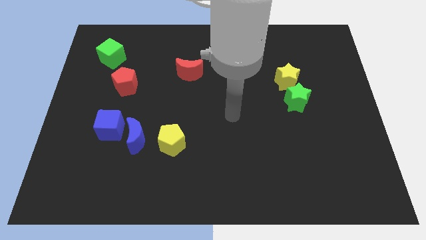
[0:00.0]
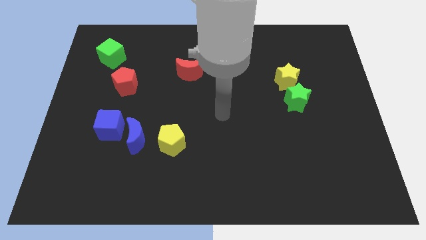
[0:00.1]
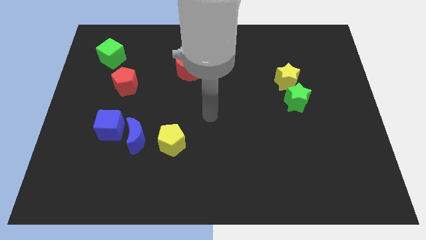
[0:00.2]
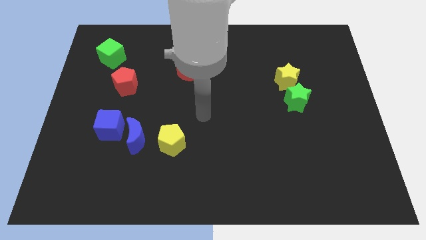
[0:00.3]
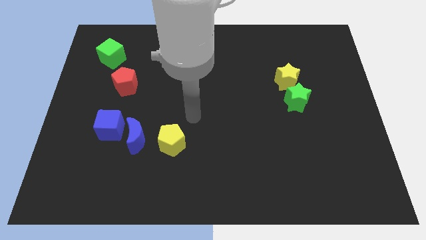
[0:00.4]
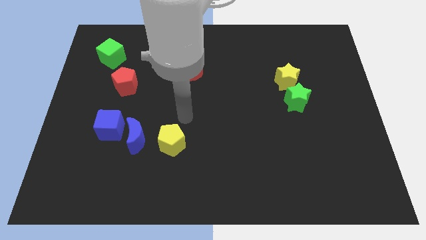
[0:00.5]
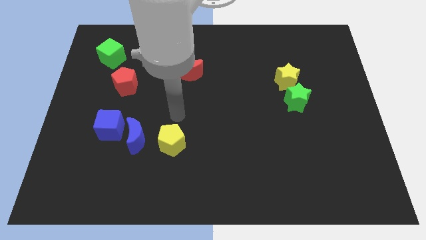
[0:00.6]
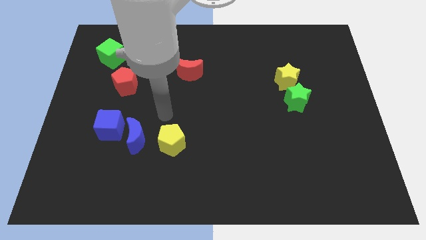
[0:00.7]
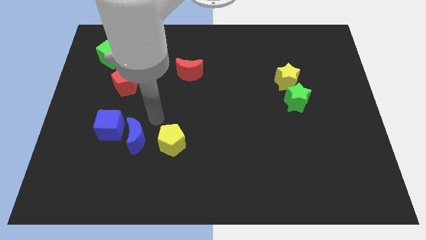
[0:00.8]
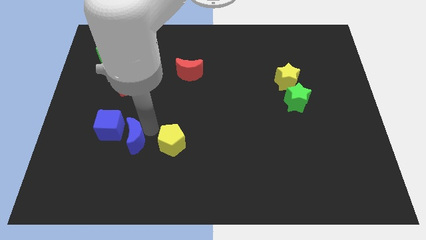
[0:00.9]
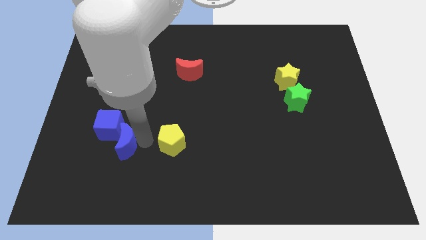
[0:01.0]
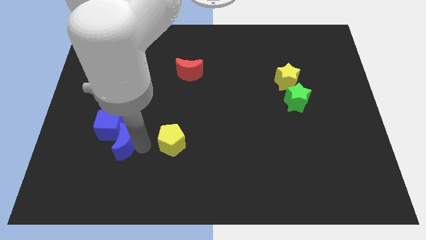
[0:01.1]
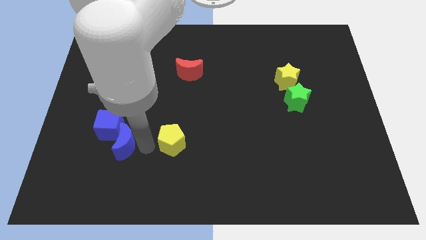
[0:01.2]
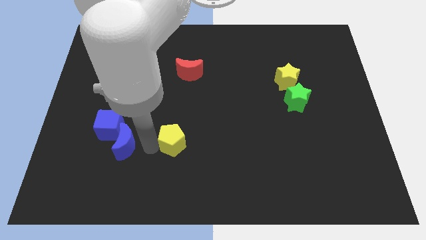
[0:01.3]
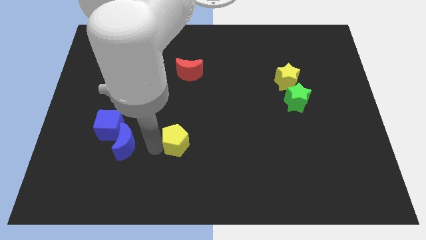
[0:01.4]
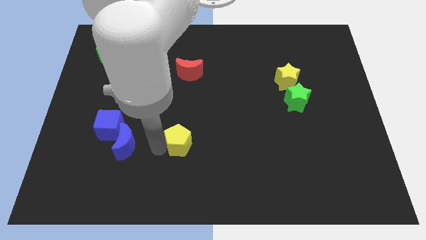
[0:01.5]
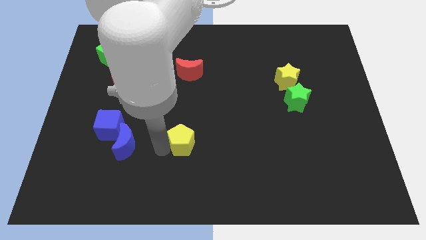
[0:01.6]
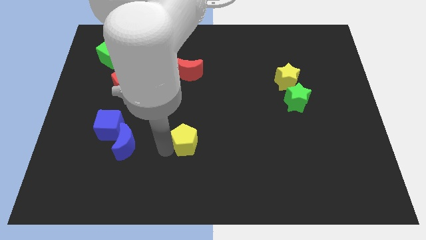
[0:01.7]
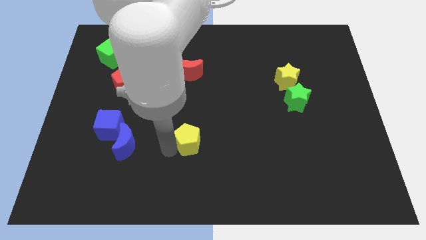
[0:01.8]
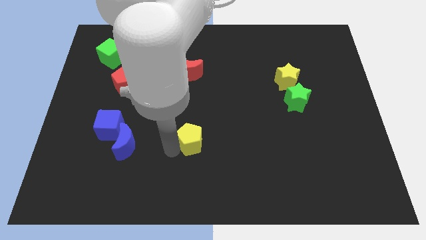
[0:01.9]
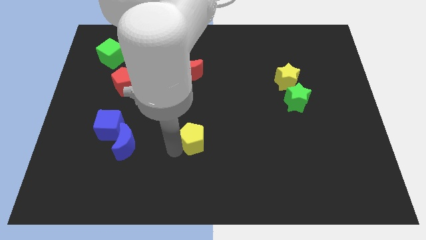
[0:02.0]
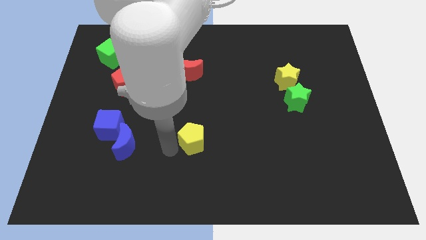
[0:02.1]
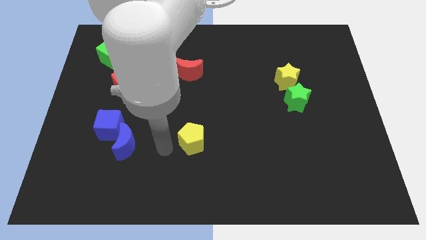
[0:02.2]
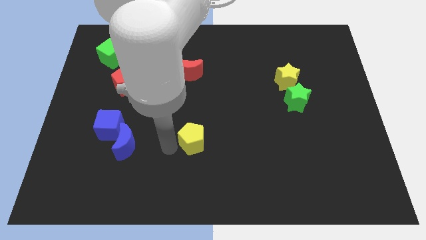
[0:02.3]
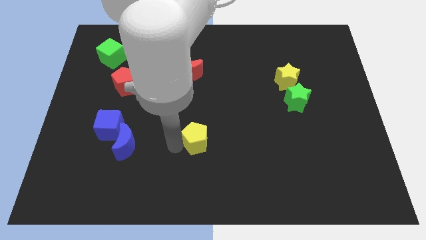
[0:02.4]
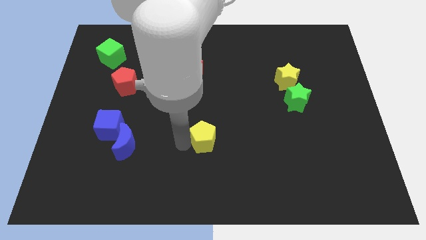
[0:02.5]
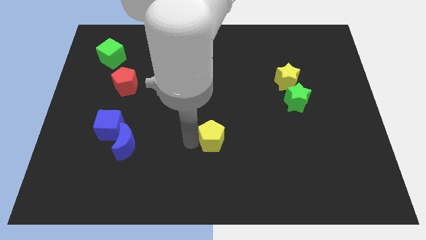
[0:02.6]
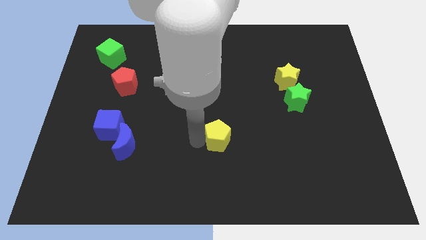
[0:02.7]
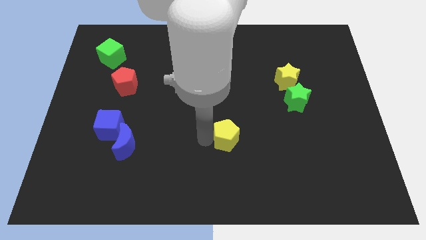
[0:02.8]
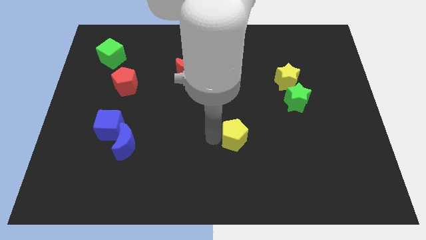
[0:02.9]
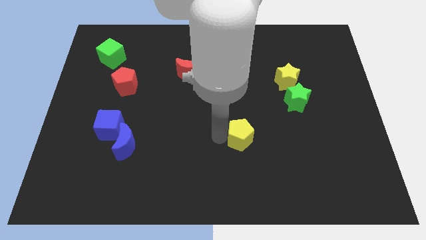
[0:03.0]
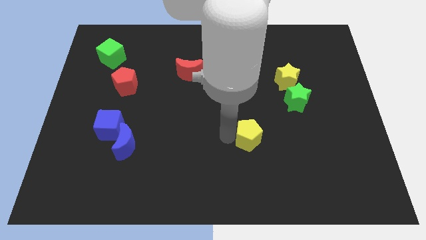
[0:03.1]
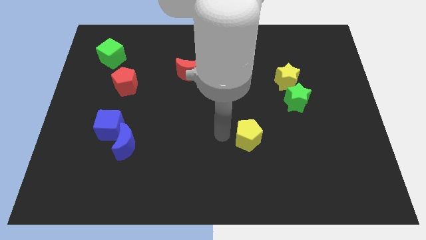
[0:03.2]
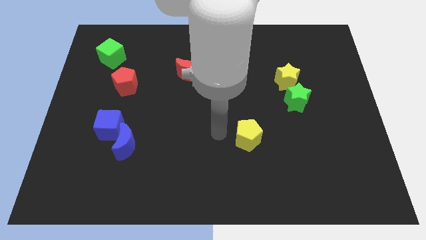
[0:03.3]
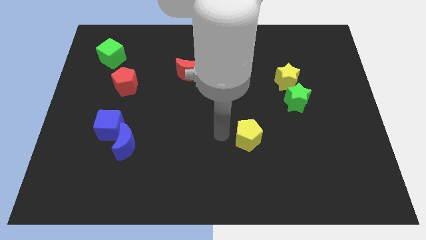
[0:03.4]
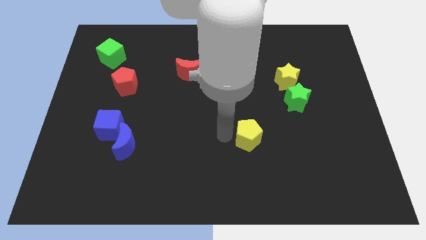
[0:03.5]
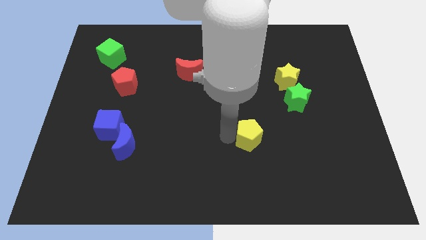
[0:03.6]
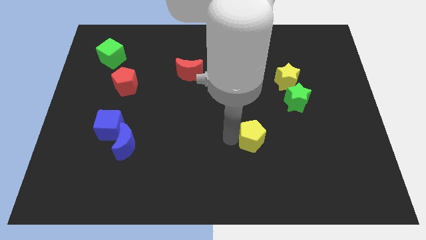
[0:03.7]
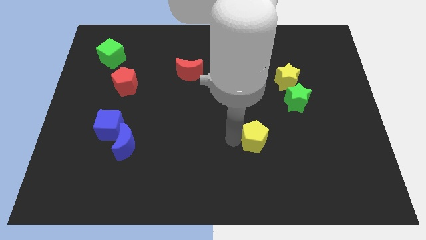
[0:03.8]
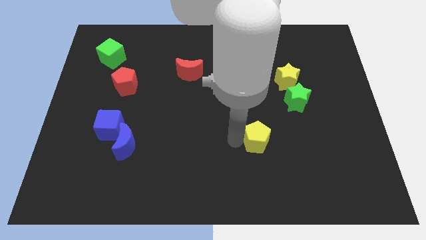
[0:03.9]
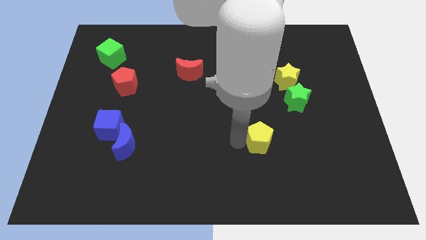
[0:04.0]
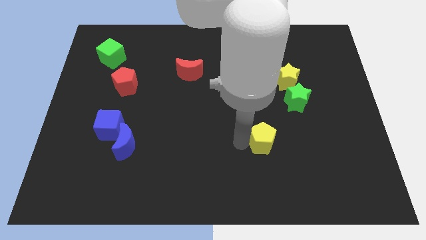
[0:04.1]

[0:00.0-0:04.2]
move the yellow pentagon to the right

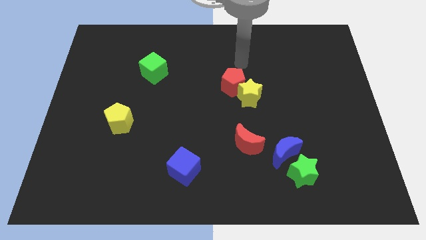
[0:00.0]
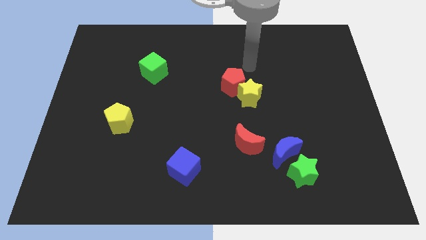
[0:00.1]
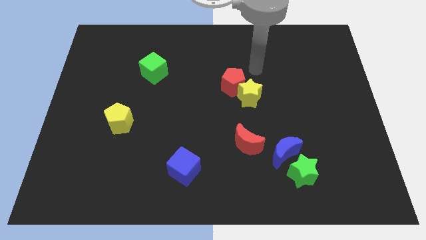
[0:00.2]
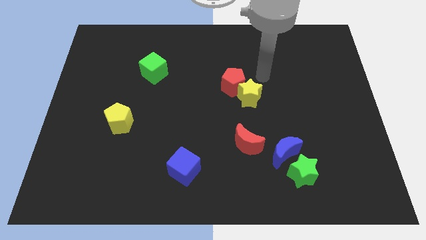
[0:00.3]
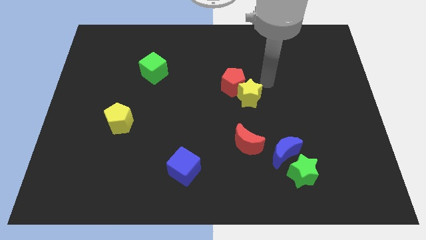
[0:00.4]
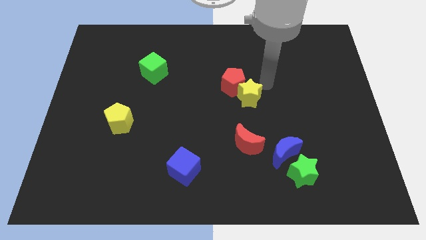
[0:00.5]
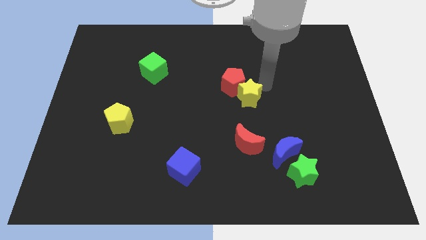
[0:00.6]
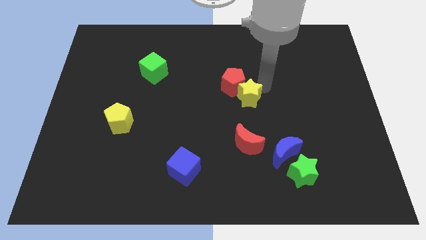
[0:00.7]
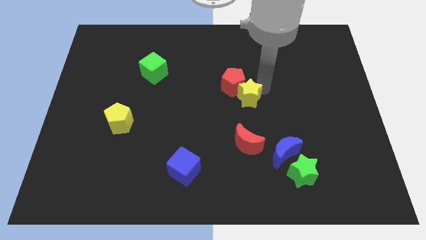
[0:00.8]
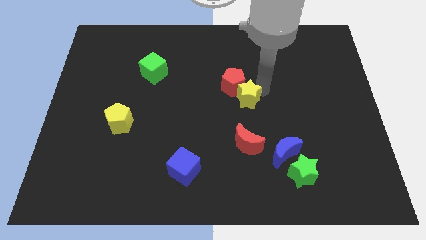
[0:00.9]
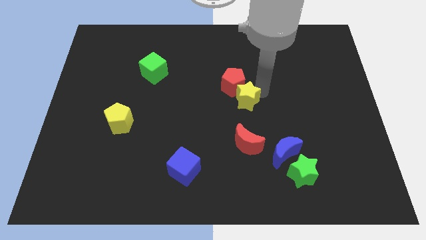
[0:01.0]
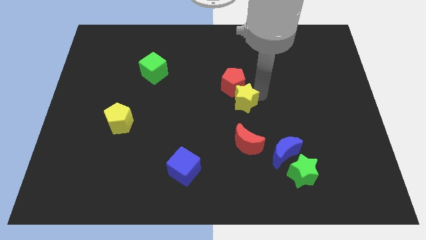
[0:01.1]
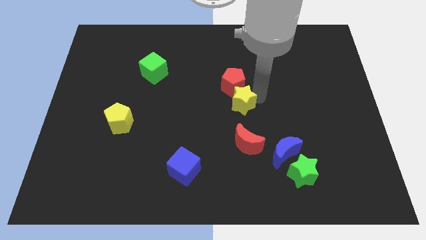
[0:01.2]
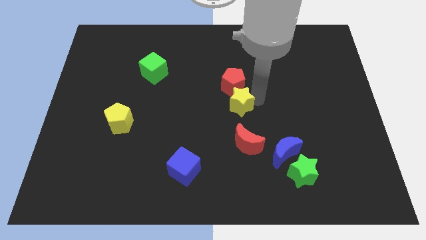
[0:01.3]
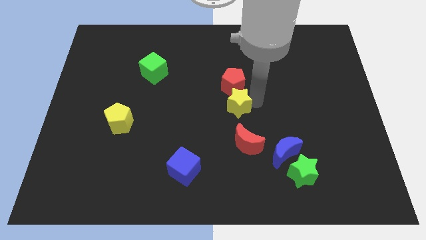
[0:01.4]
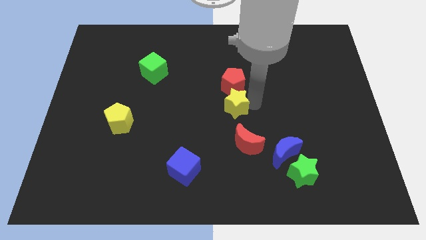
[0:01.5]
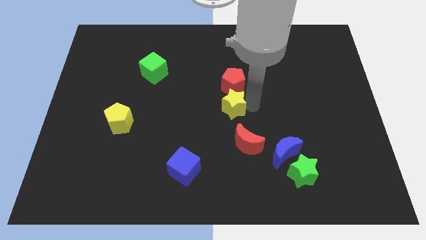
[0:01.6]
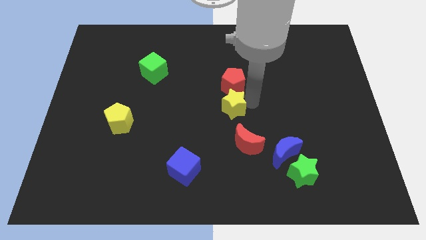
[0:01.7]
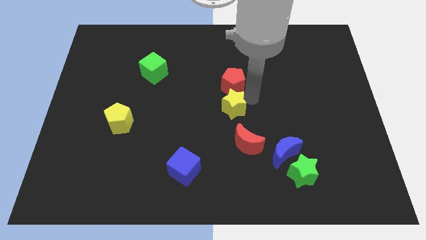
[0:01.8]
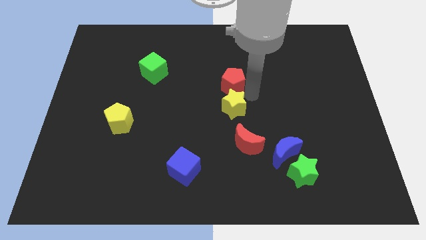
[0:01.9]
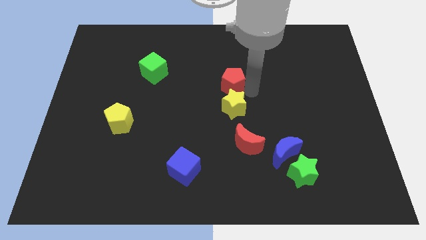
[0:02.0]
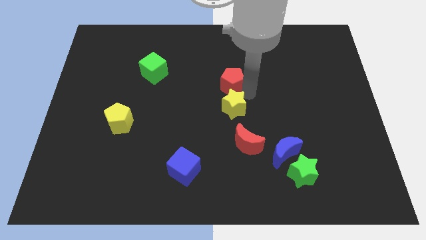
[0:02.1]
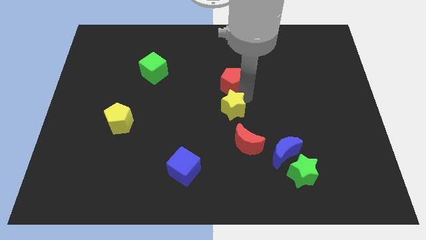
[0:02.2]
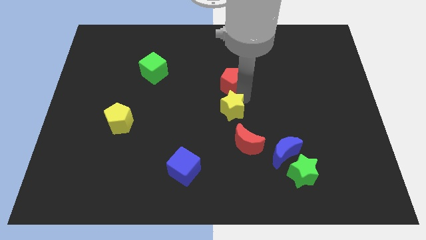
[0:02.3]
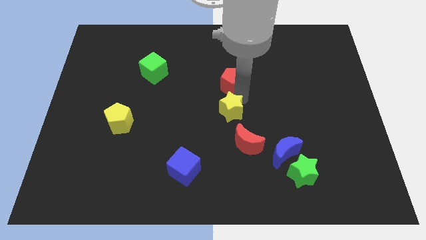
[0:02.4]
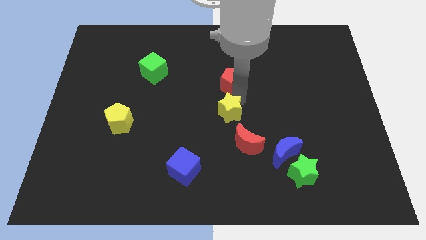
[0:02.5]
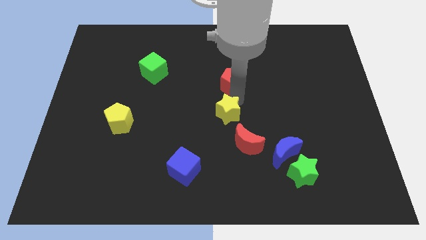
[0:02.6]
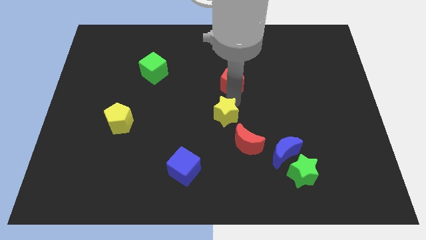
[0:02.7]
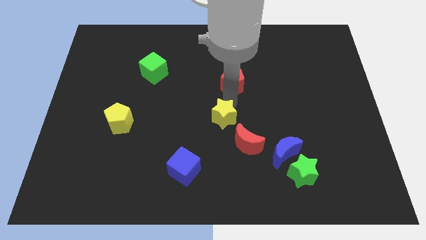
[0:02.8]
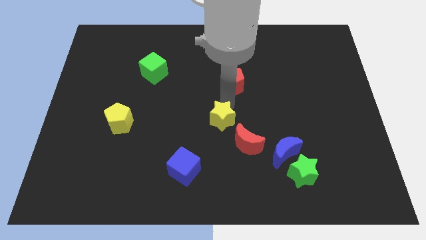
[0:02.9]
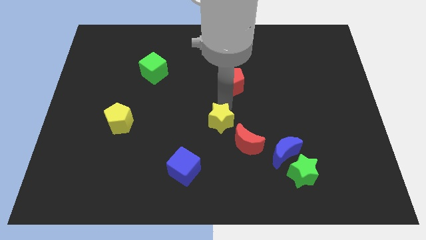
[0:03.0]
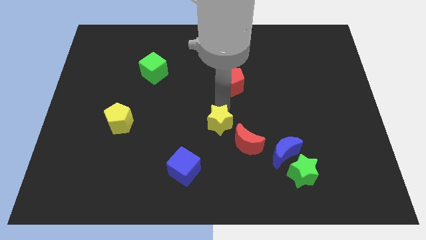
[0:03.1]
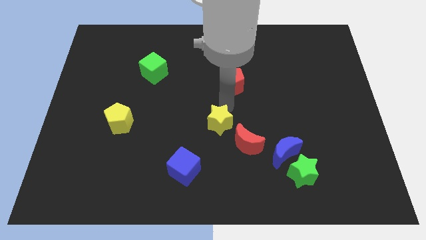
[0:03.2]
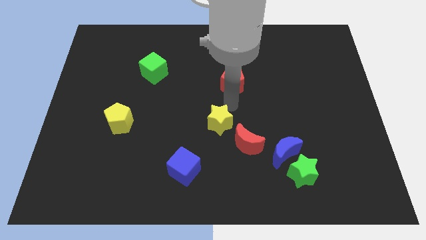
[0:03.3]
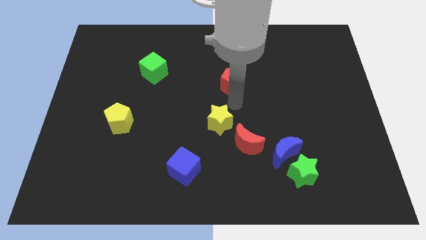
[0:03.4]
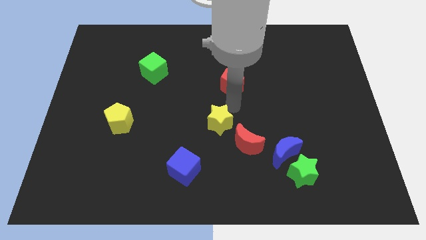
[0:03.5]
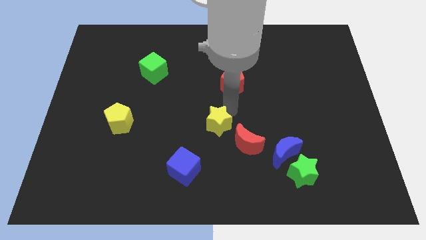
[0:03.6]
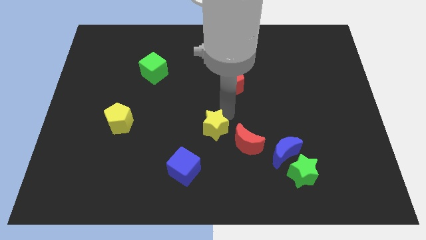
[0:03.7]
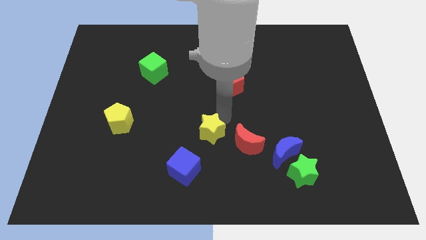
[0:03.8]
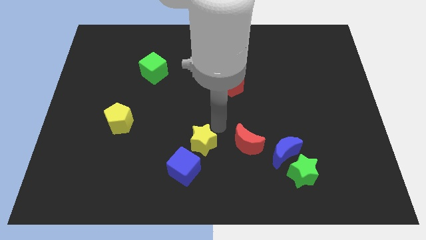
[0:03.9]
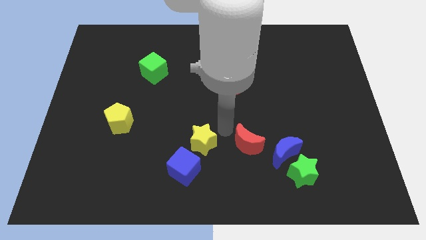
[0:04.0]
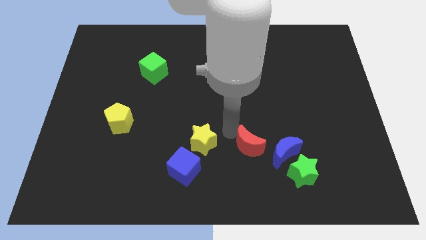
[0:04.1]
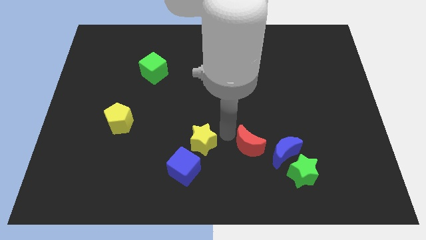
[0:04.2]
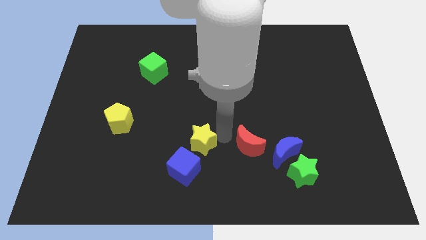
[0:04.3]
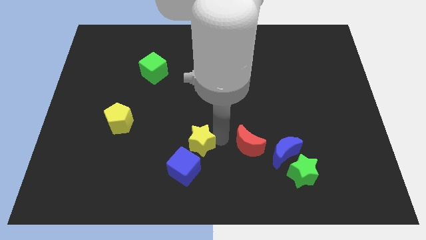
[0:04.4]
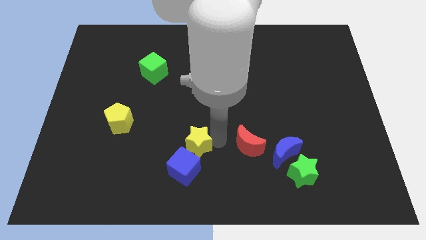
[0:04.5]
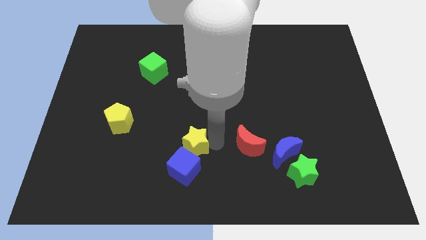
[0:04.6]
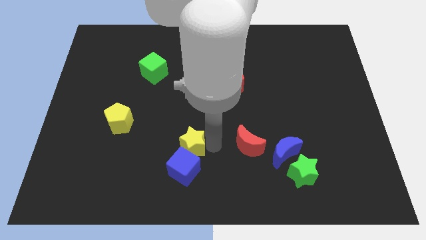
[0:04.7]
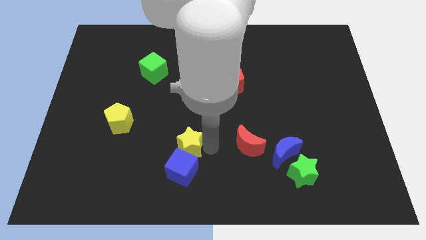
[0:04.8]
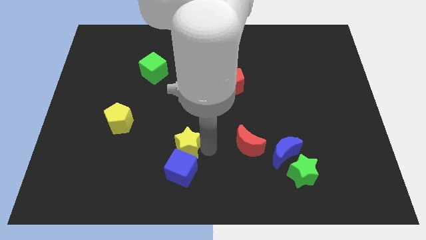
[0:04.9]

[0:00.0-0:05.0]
move the yellow star down and then to the left
